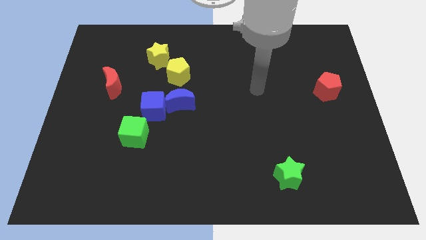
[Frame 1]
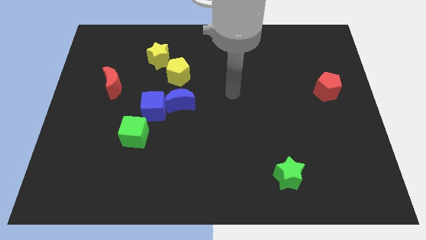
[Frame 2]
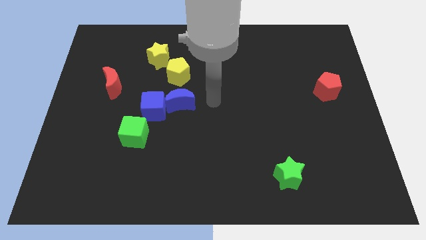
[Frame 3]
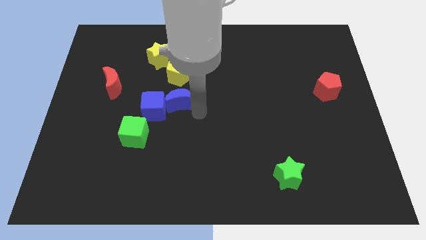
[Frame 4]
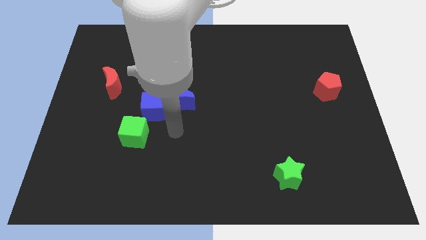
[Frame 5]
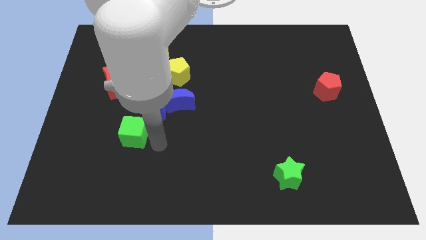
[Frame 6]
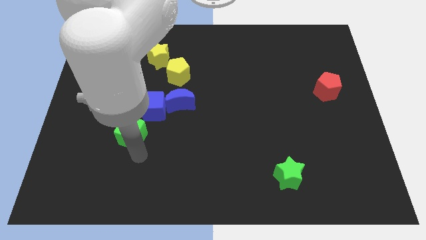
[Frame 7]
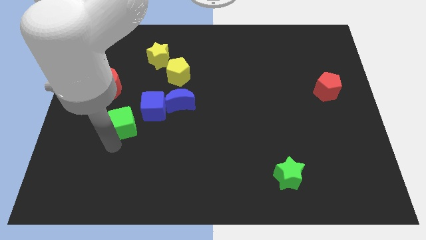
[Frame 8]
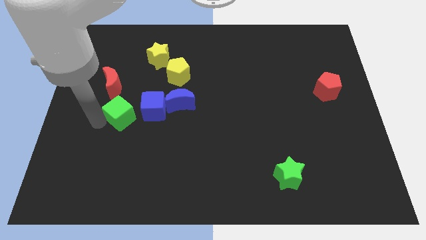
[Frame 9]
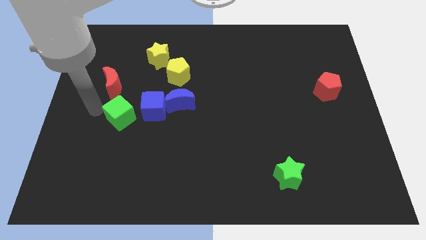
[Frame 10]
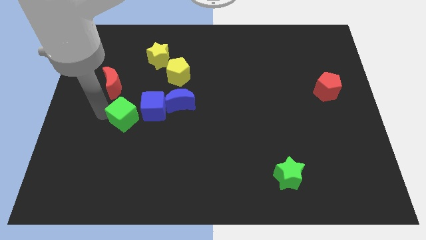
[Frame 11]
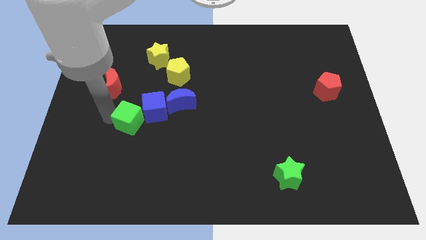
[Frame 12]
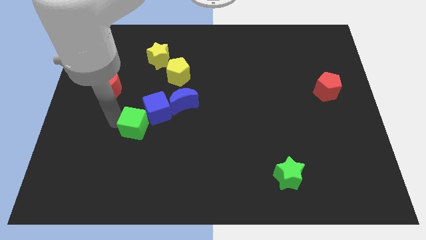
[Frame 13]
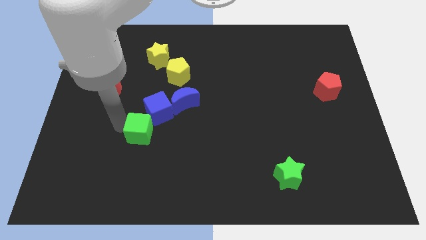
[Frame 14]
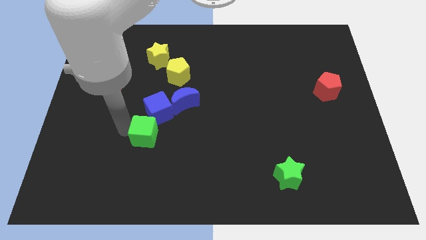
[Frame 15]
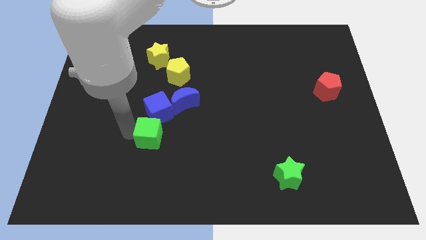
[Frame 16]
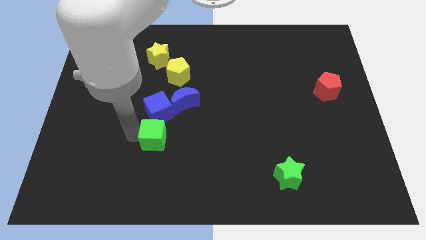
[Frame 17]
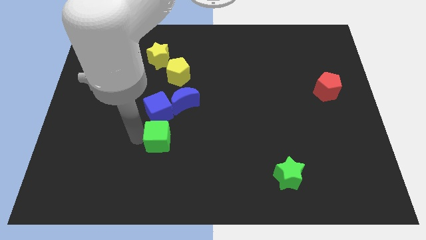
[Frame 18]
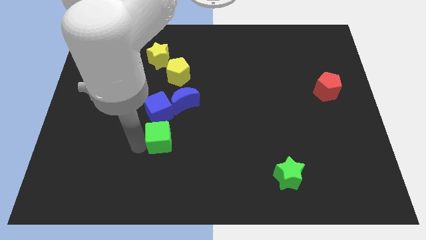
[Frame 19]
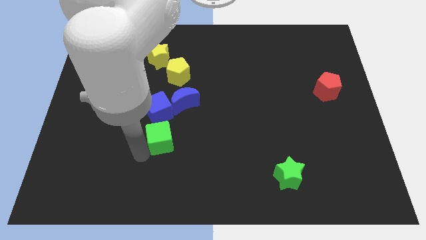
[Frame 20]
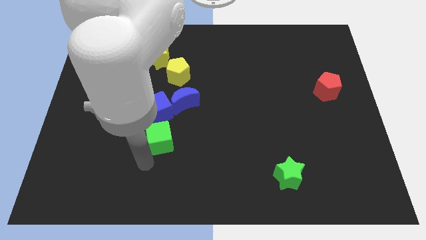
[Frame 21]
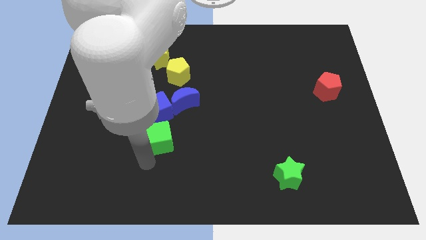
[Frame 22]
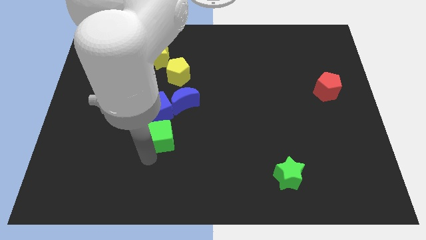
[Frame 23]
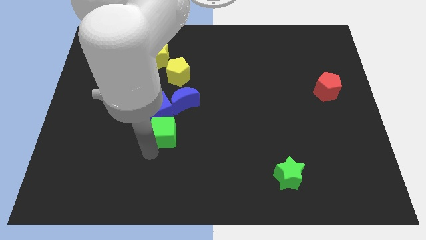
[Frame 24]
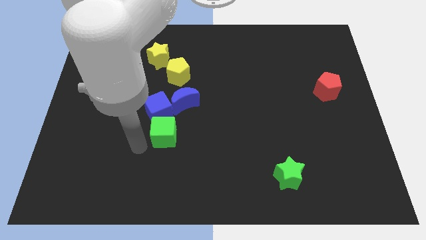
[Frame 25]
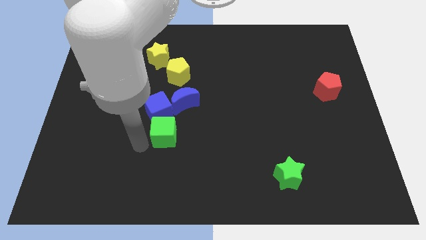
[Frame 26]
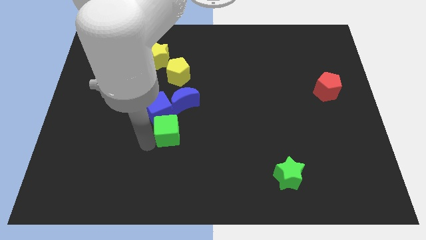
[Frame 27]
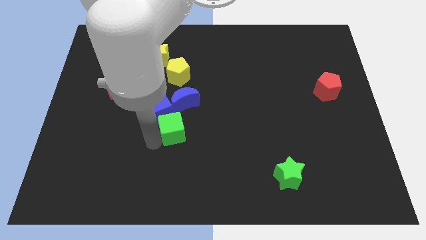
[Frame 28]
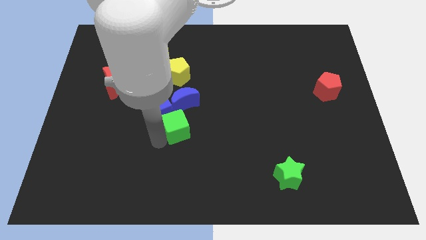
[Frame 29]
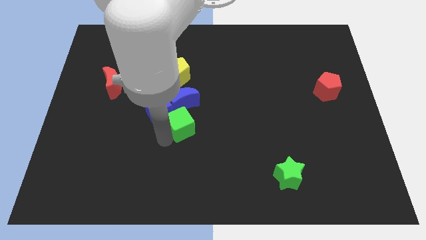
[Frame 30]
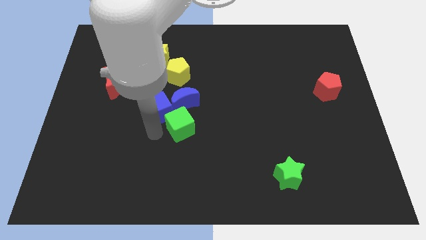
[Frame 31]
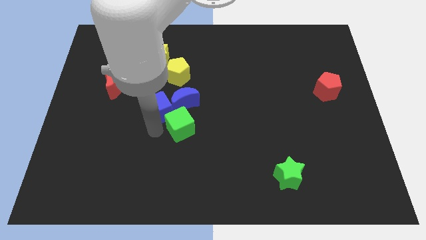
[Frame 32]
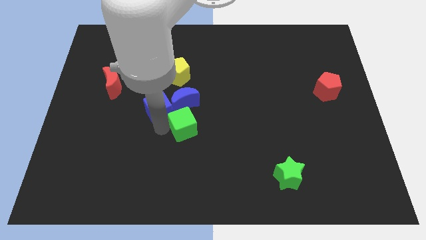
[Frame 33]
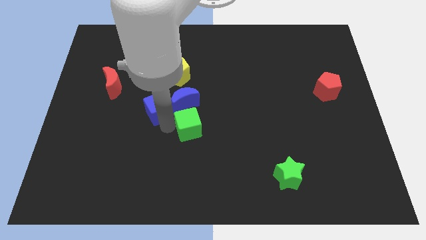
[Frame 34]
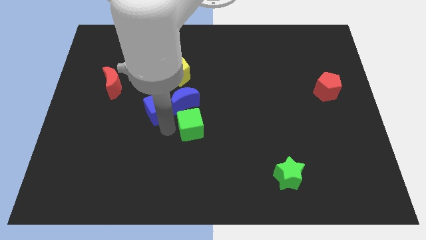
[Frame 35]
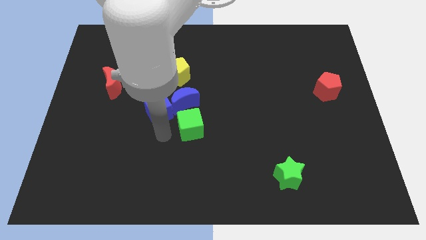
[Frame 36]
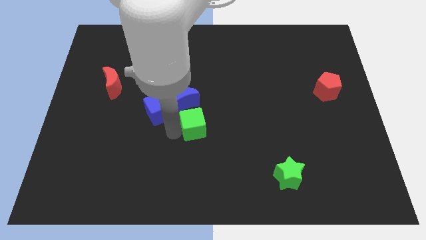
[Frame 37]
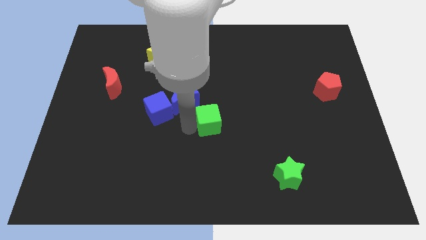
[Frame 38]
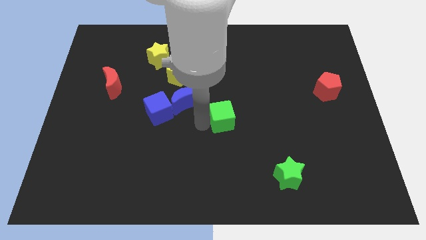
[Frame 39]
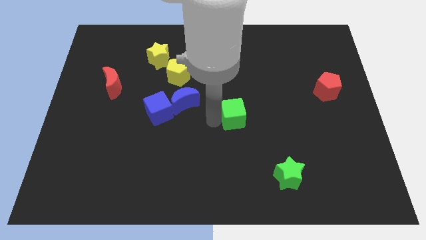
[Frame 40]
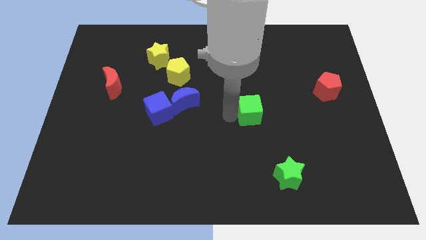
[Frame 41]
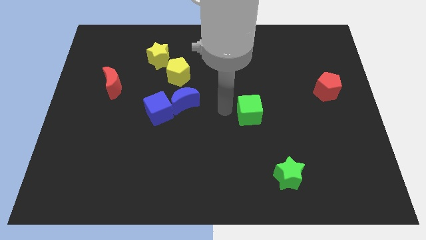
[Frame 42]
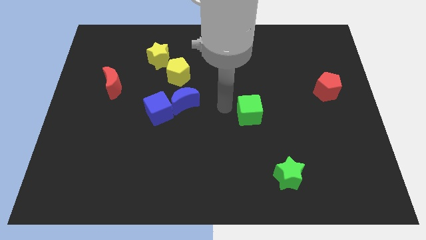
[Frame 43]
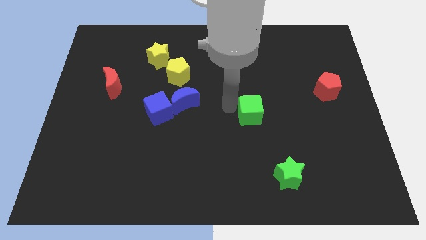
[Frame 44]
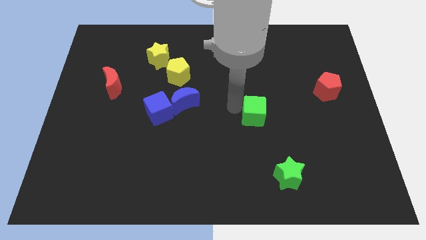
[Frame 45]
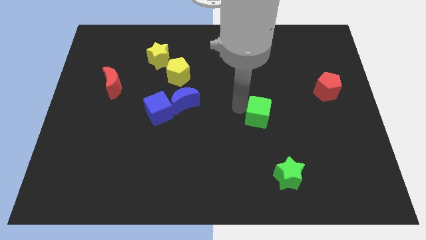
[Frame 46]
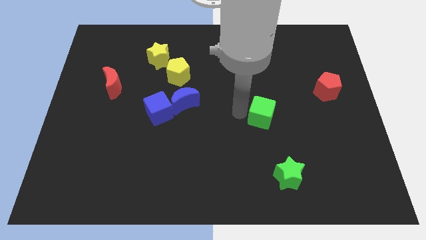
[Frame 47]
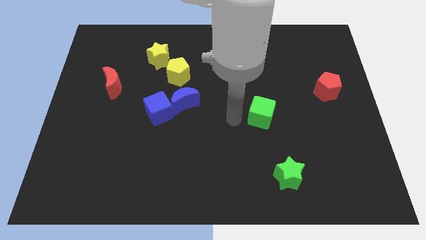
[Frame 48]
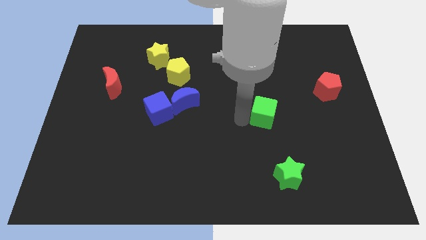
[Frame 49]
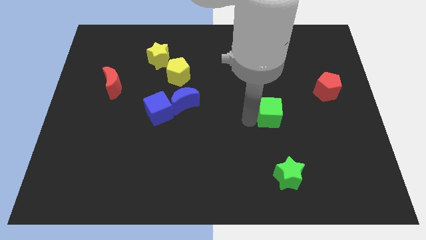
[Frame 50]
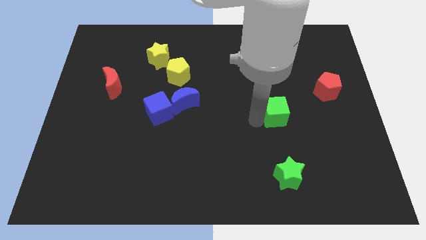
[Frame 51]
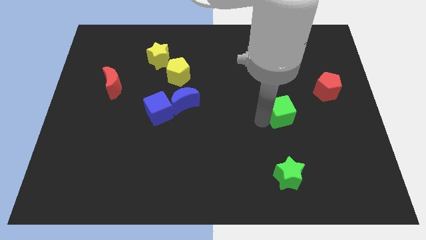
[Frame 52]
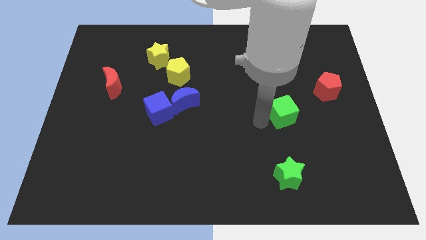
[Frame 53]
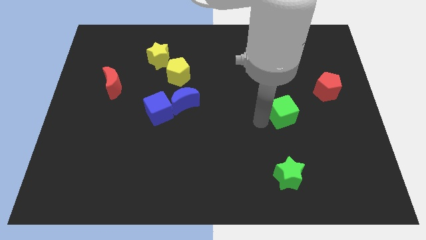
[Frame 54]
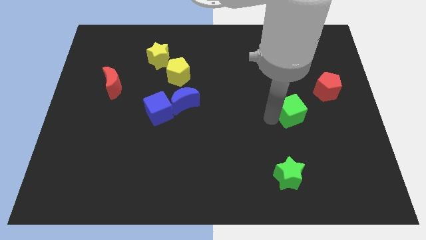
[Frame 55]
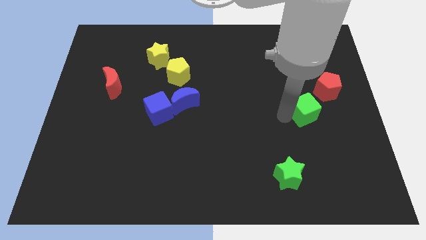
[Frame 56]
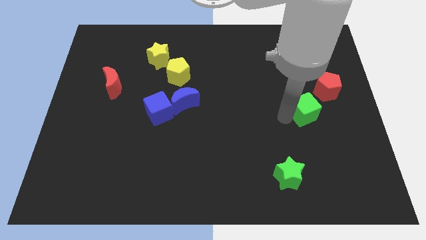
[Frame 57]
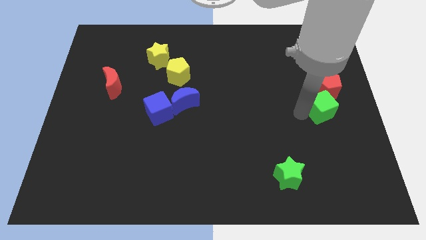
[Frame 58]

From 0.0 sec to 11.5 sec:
push the green cube to the right side of the board

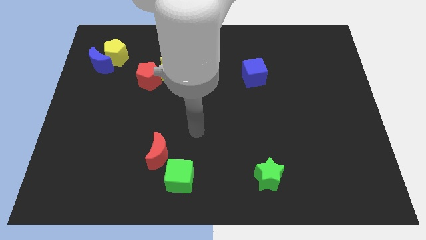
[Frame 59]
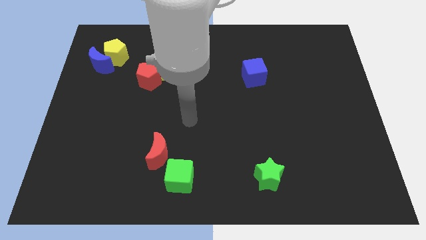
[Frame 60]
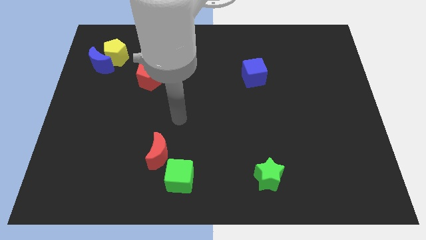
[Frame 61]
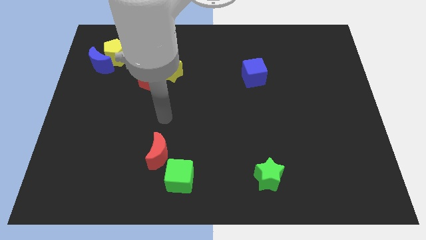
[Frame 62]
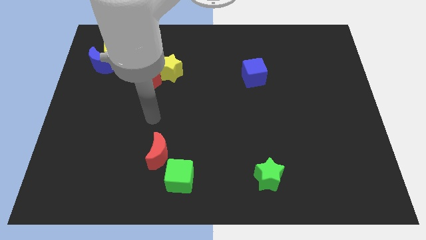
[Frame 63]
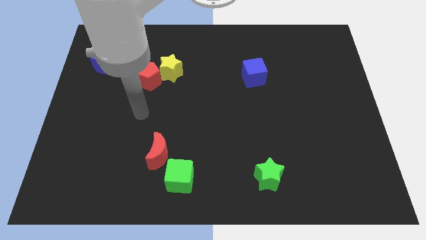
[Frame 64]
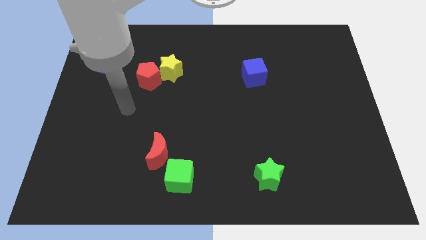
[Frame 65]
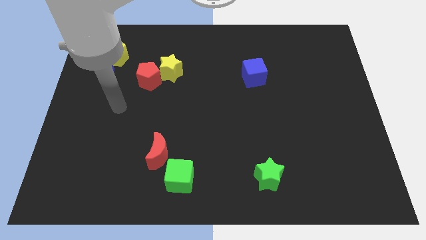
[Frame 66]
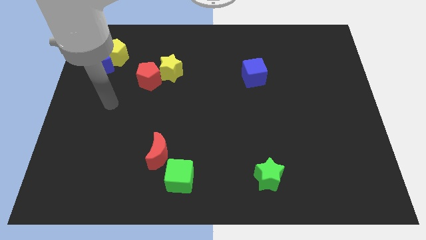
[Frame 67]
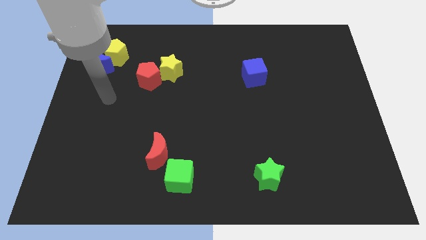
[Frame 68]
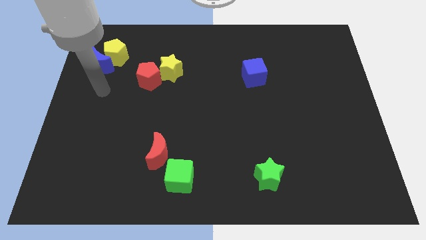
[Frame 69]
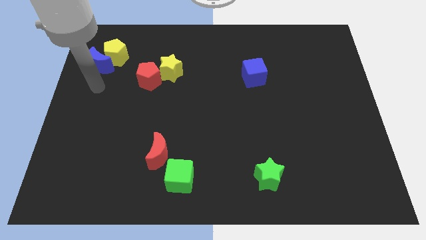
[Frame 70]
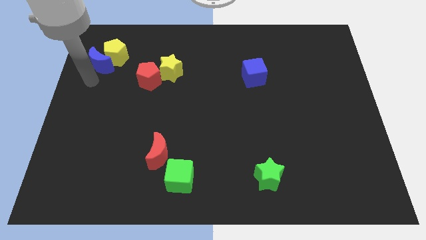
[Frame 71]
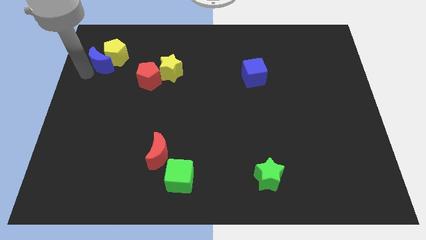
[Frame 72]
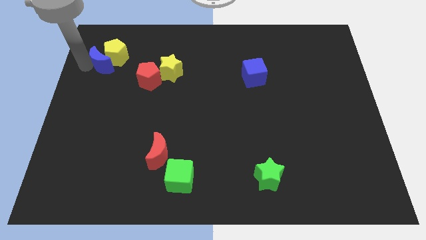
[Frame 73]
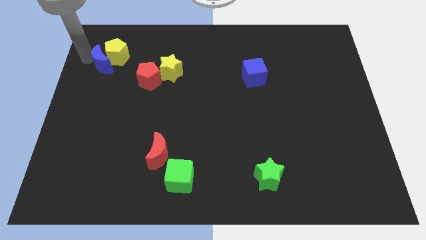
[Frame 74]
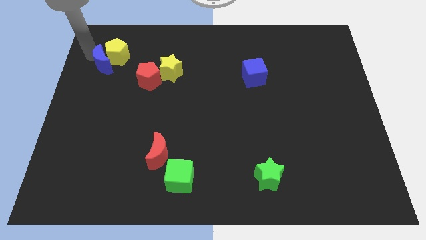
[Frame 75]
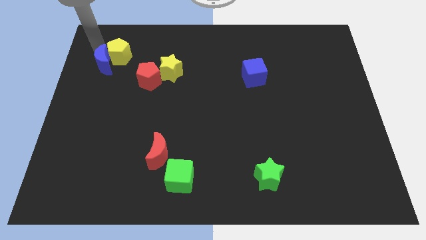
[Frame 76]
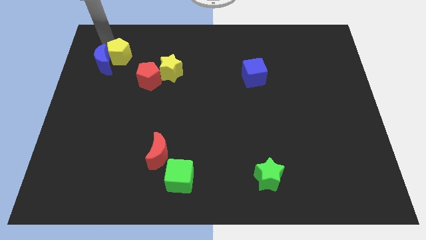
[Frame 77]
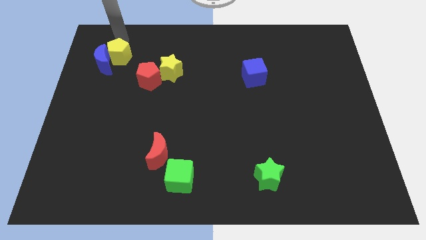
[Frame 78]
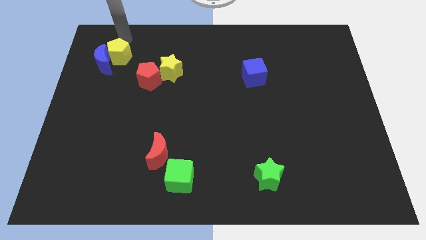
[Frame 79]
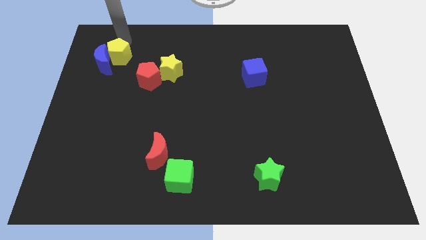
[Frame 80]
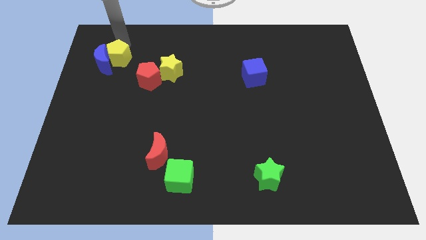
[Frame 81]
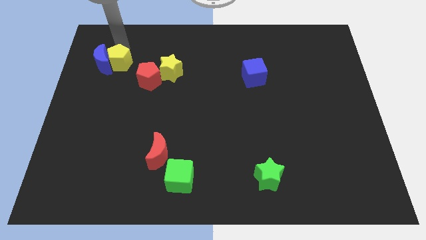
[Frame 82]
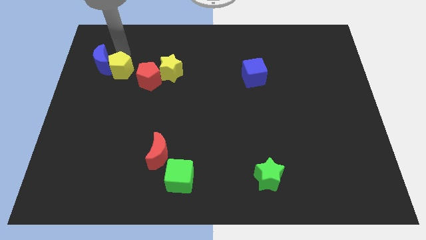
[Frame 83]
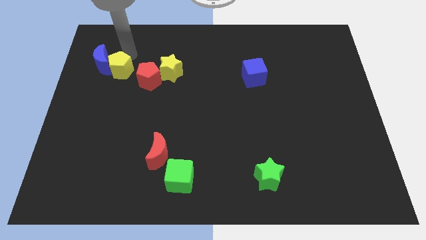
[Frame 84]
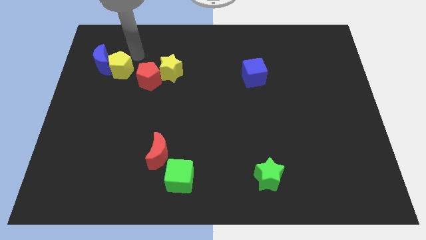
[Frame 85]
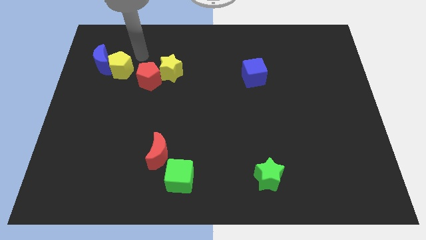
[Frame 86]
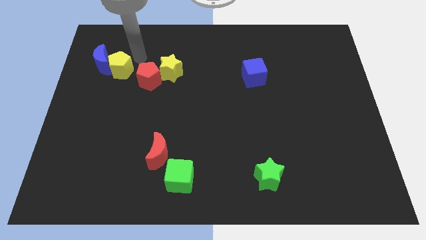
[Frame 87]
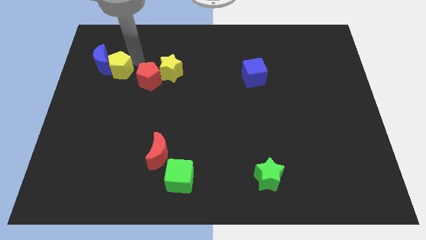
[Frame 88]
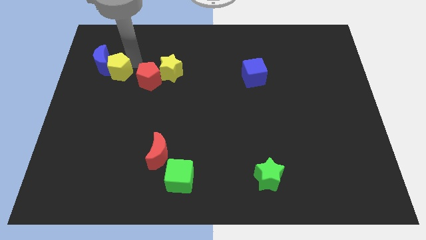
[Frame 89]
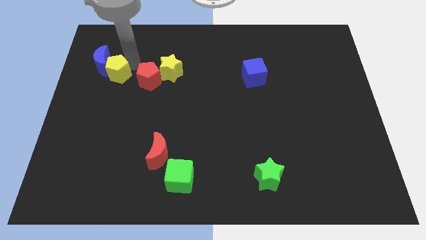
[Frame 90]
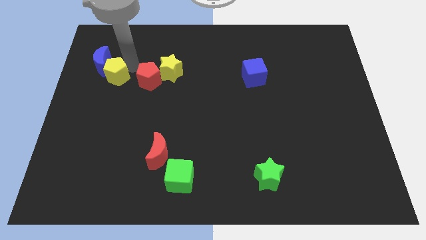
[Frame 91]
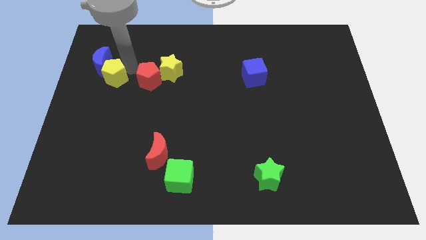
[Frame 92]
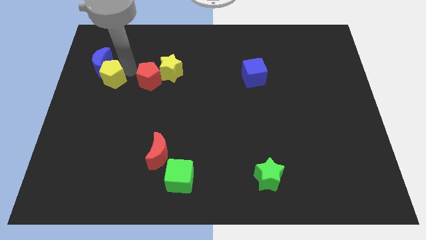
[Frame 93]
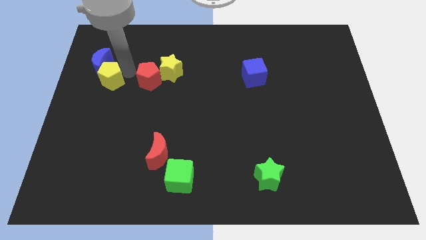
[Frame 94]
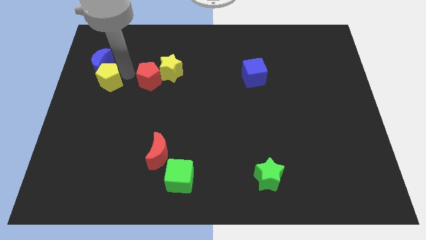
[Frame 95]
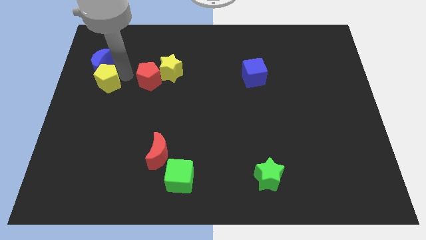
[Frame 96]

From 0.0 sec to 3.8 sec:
push the yellow pentagon to the center left
